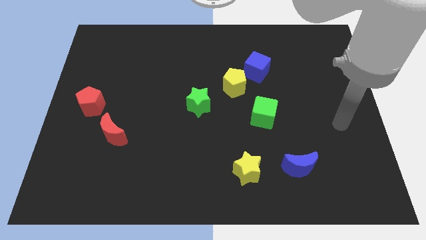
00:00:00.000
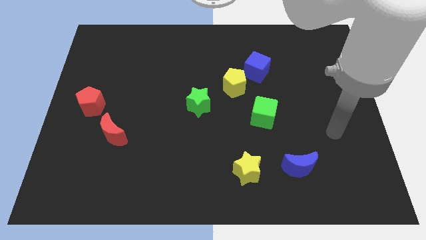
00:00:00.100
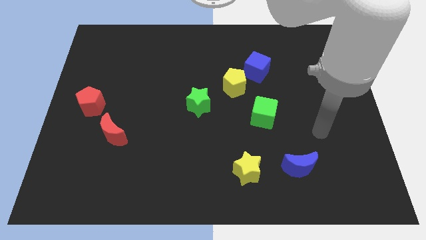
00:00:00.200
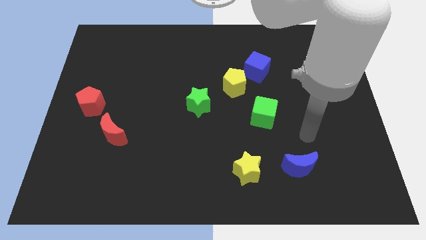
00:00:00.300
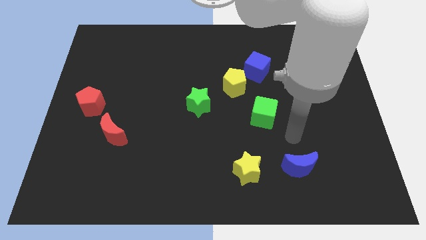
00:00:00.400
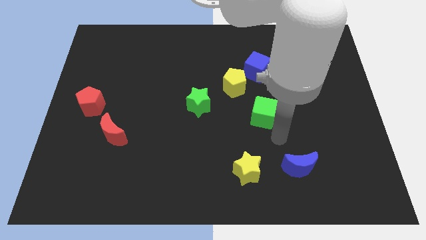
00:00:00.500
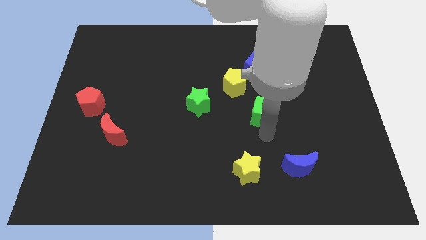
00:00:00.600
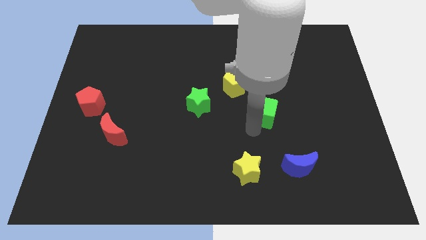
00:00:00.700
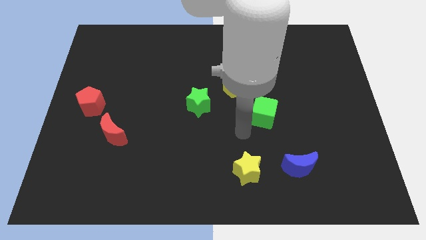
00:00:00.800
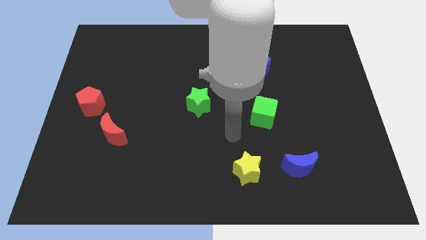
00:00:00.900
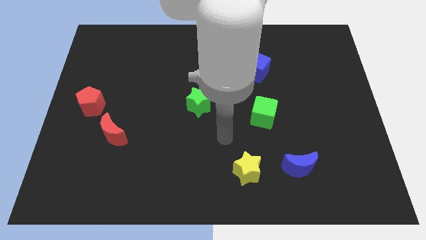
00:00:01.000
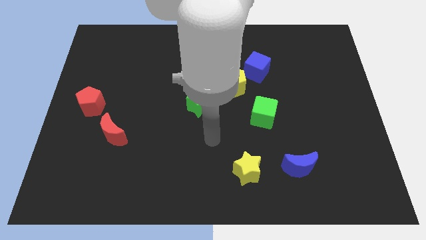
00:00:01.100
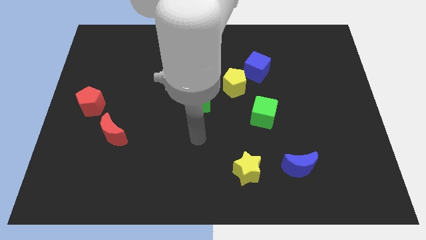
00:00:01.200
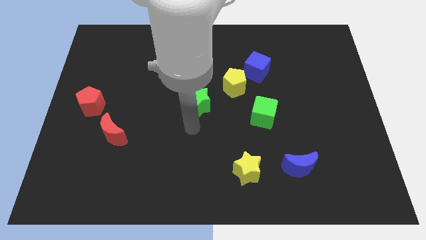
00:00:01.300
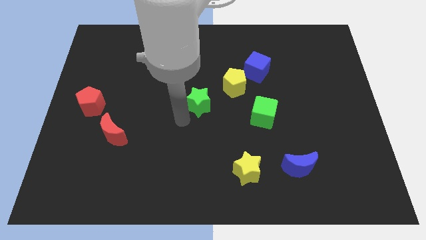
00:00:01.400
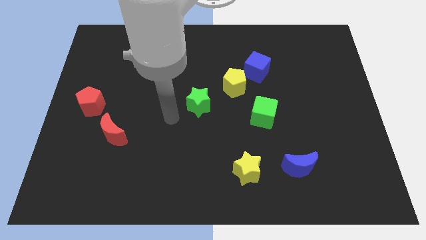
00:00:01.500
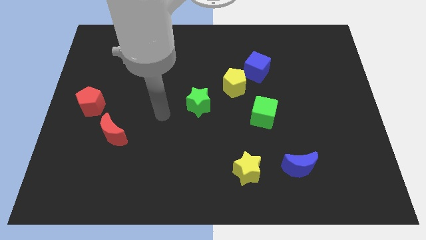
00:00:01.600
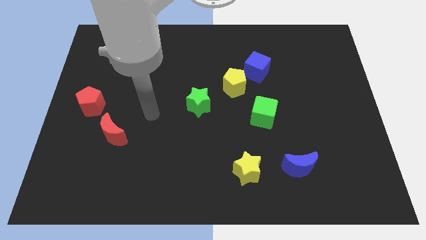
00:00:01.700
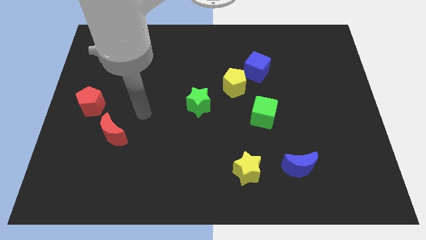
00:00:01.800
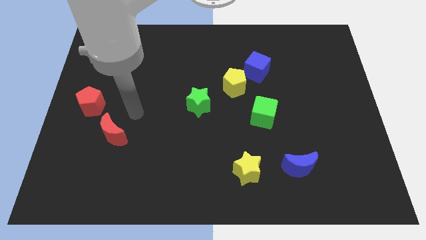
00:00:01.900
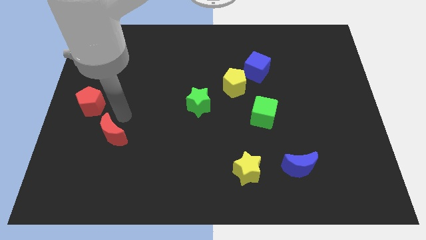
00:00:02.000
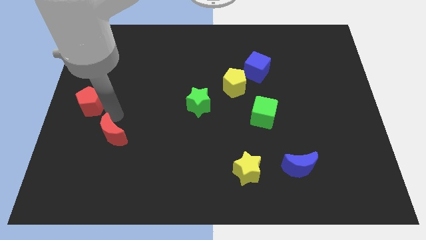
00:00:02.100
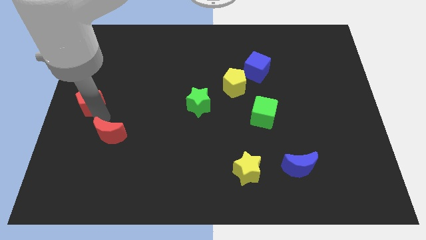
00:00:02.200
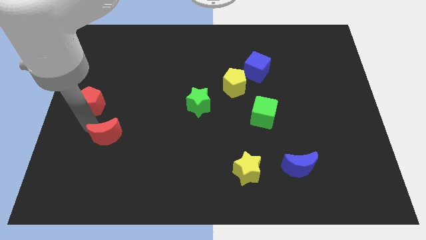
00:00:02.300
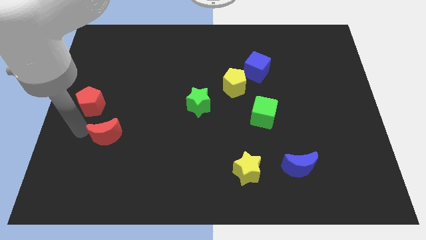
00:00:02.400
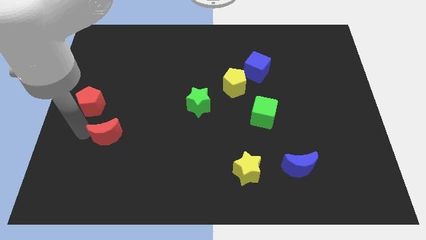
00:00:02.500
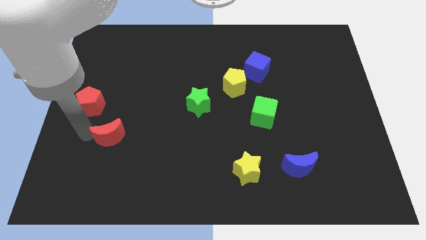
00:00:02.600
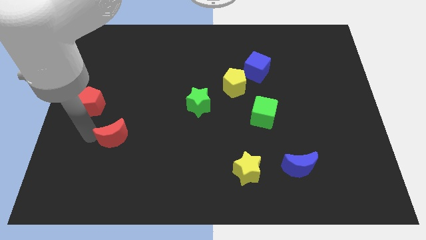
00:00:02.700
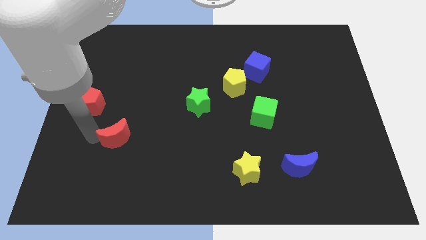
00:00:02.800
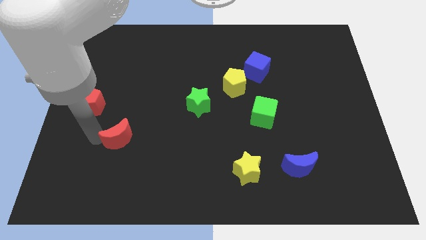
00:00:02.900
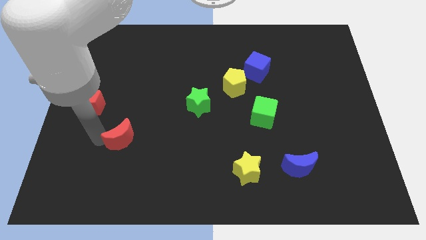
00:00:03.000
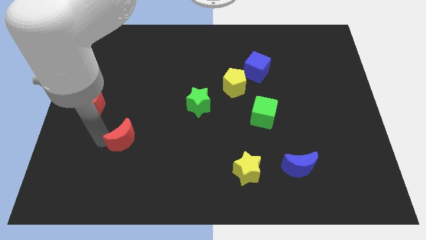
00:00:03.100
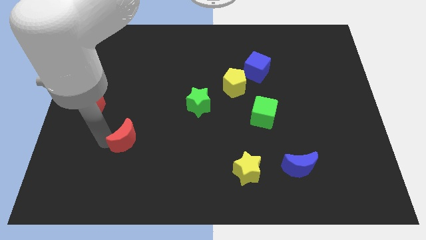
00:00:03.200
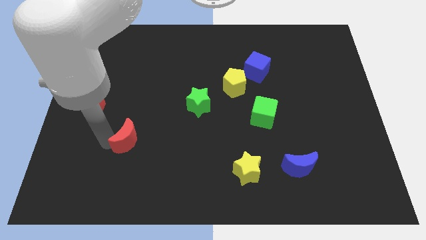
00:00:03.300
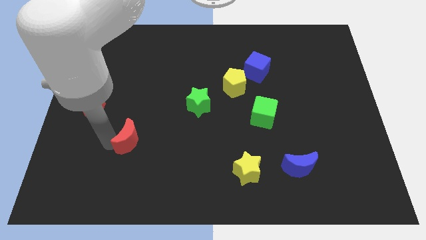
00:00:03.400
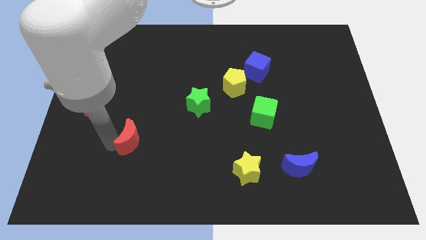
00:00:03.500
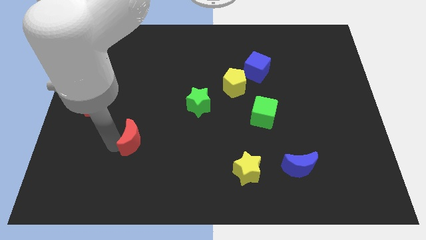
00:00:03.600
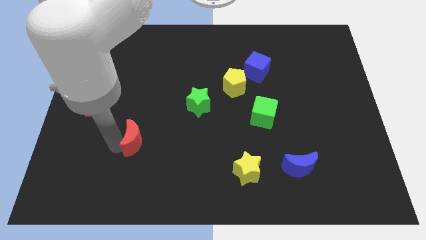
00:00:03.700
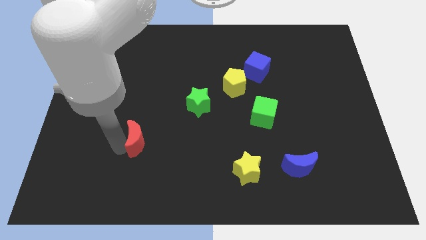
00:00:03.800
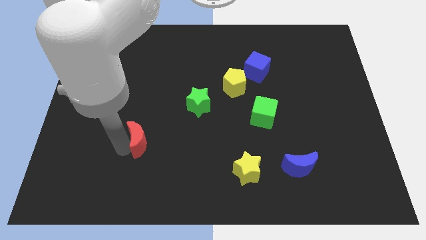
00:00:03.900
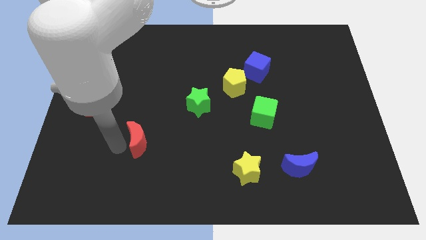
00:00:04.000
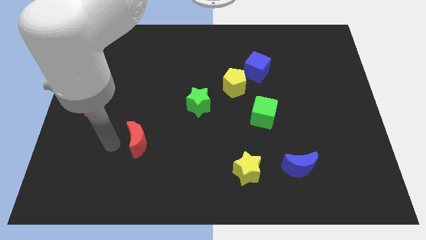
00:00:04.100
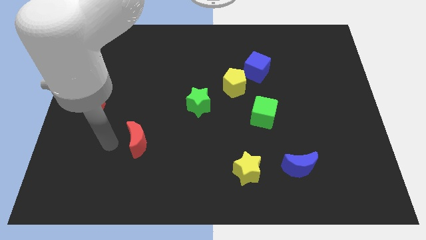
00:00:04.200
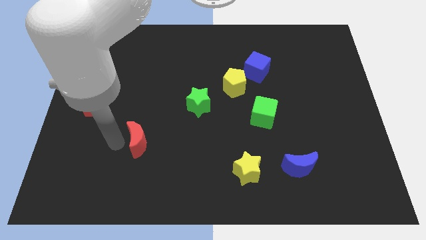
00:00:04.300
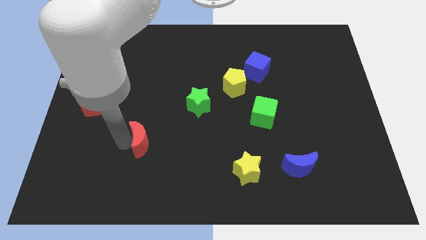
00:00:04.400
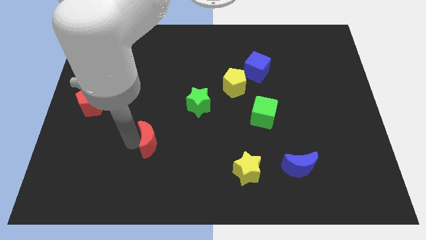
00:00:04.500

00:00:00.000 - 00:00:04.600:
push the red moon a bit right

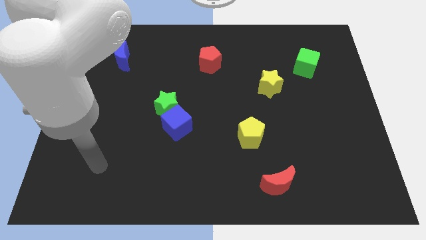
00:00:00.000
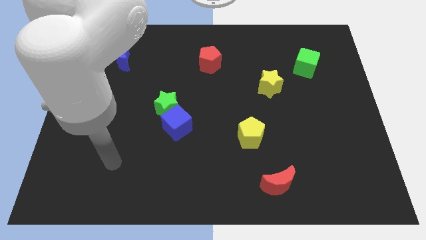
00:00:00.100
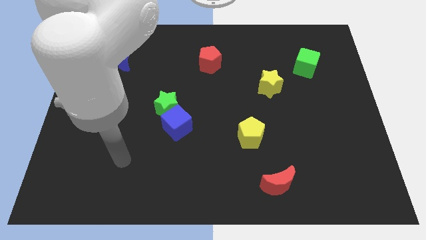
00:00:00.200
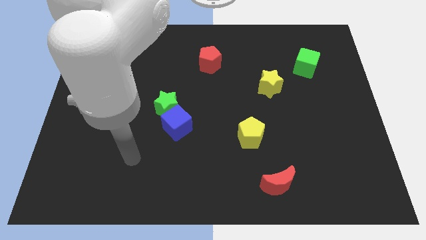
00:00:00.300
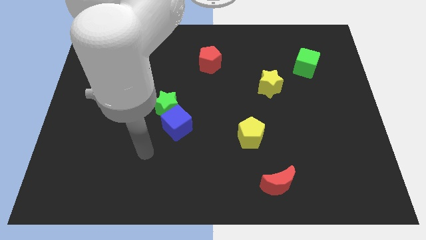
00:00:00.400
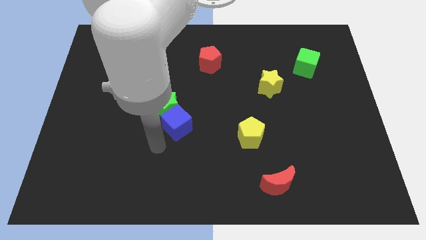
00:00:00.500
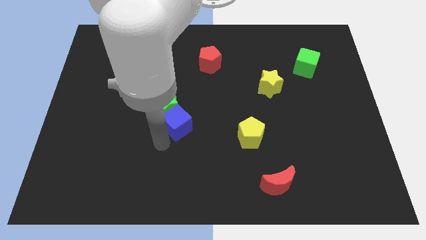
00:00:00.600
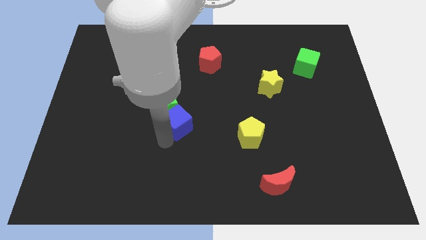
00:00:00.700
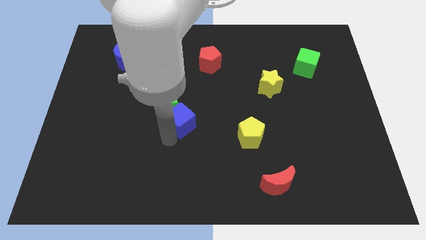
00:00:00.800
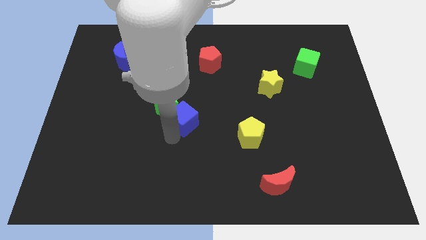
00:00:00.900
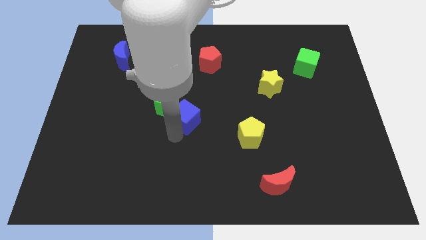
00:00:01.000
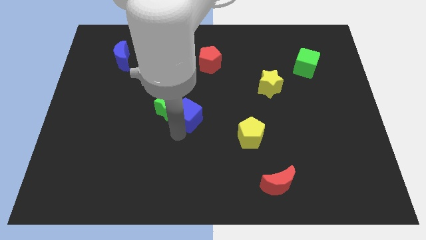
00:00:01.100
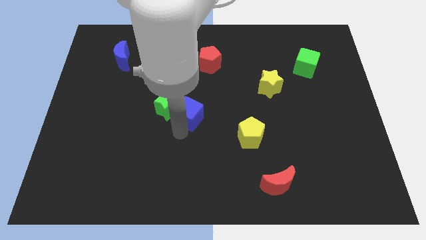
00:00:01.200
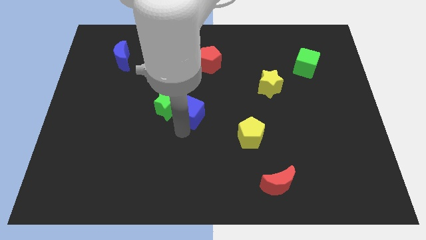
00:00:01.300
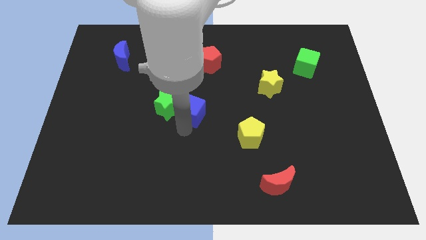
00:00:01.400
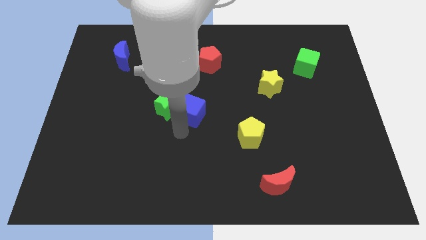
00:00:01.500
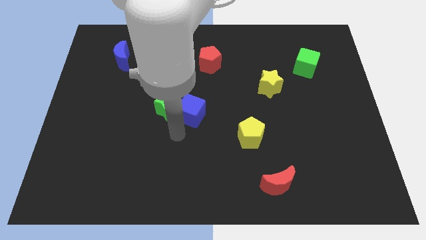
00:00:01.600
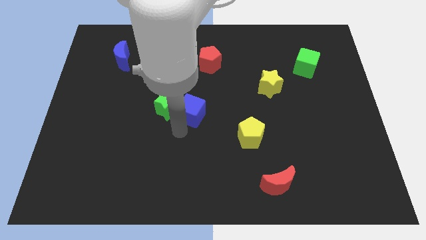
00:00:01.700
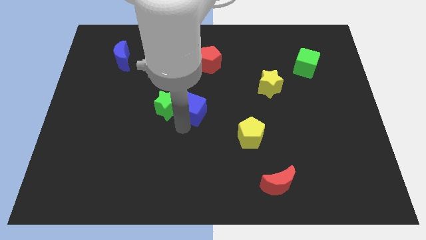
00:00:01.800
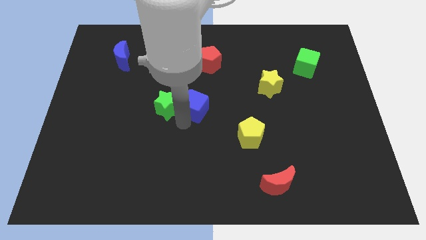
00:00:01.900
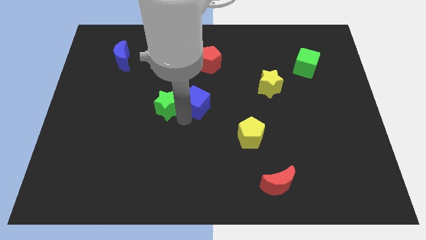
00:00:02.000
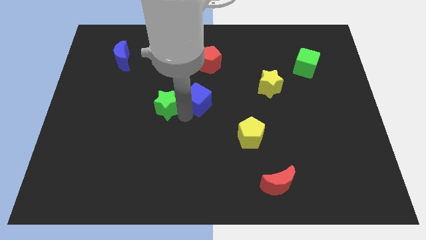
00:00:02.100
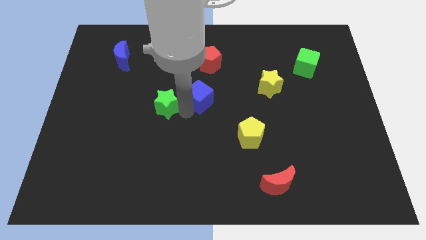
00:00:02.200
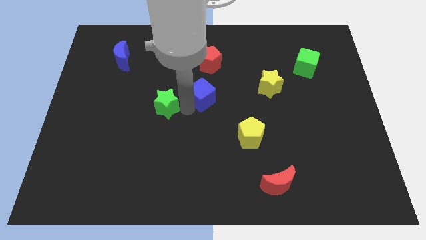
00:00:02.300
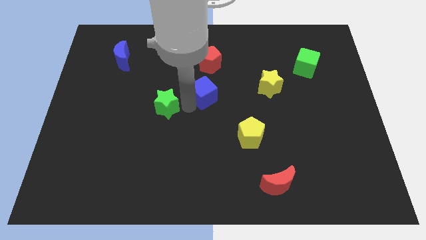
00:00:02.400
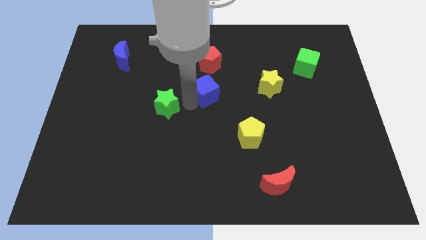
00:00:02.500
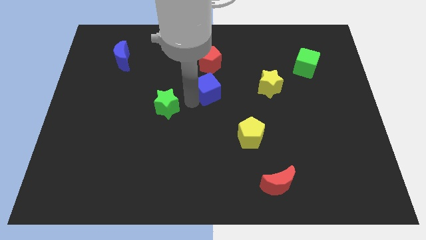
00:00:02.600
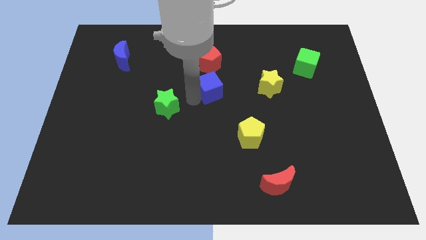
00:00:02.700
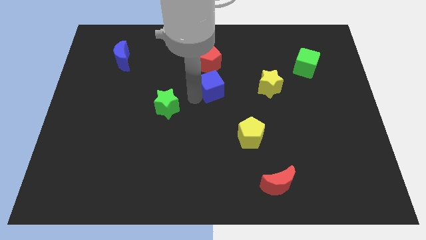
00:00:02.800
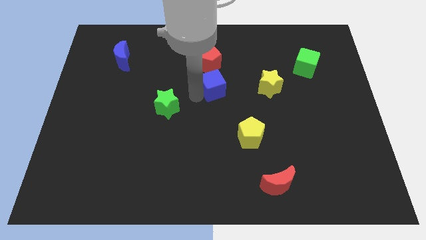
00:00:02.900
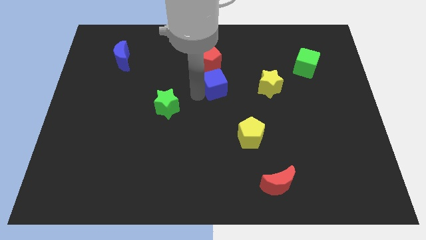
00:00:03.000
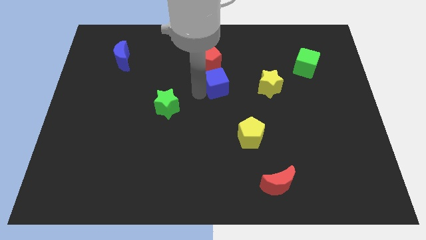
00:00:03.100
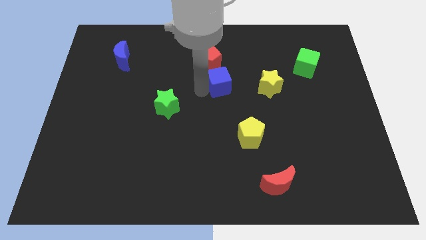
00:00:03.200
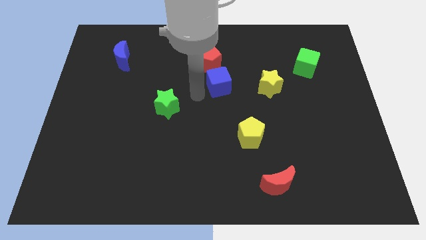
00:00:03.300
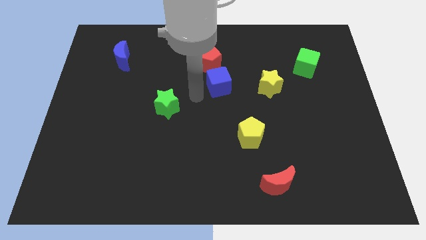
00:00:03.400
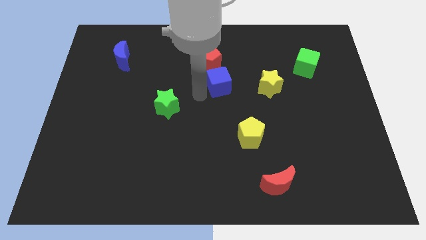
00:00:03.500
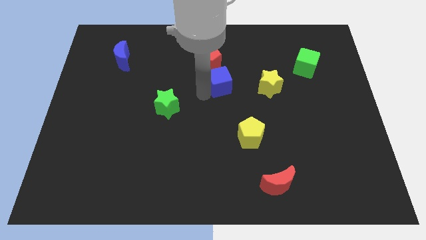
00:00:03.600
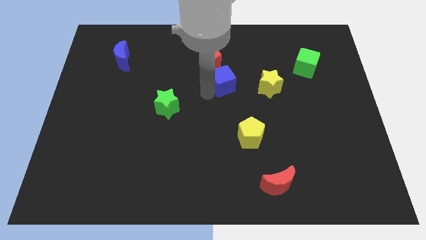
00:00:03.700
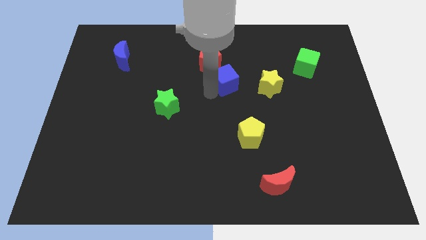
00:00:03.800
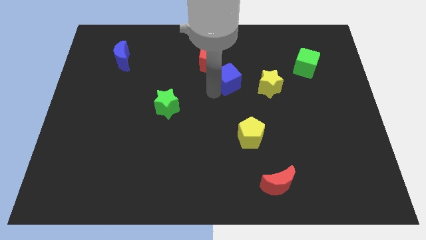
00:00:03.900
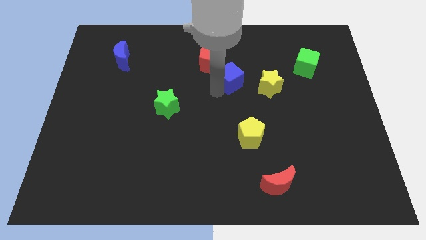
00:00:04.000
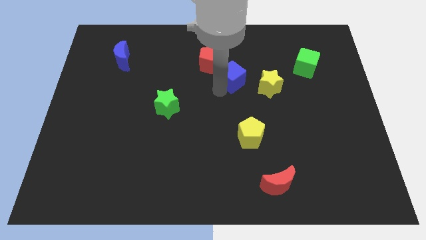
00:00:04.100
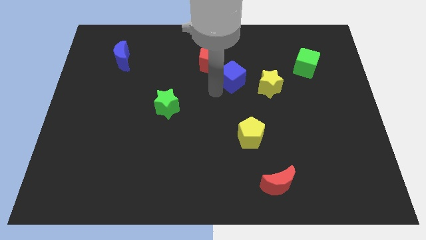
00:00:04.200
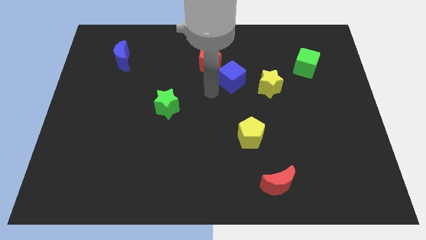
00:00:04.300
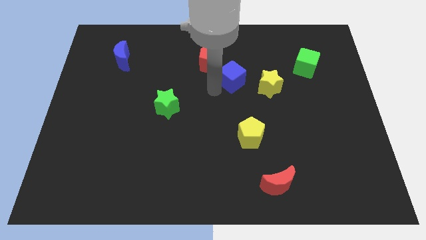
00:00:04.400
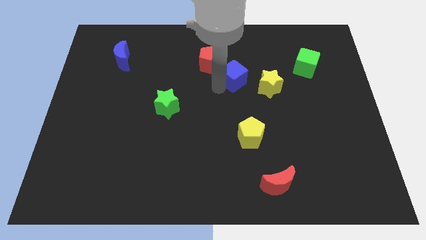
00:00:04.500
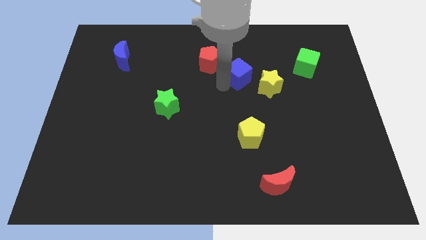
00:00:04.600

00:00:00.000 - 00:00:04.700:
move the blue cube upwards and right diagonally
